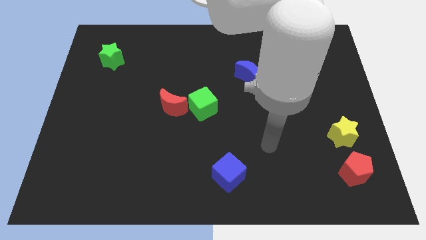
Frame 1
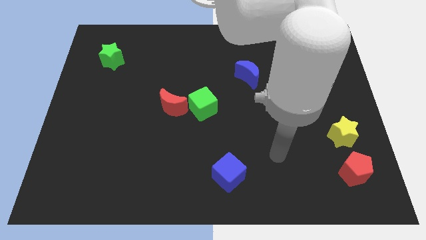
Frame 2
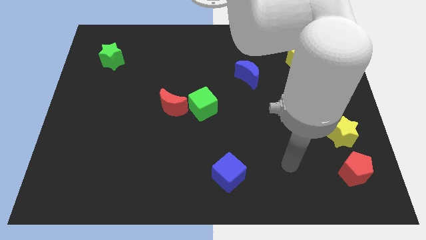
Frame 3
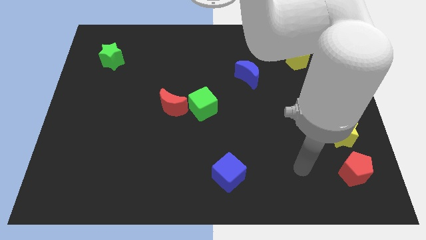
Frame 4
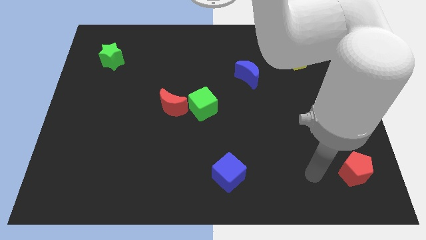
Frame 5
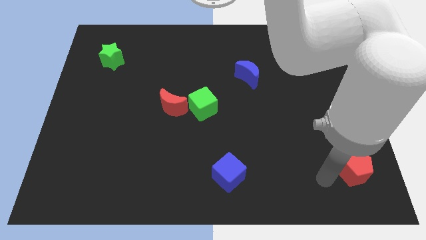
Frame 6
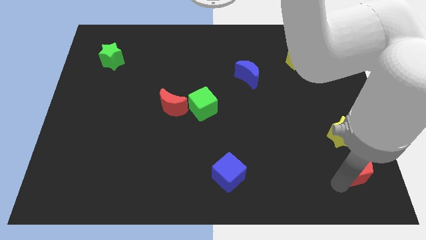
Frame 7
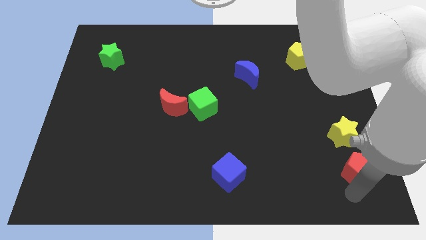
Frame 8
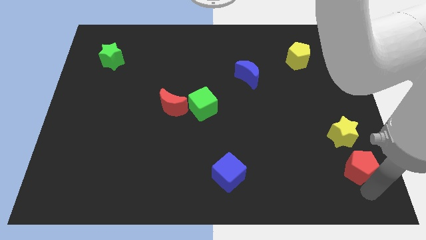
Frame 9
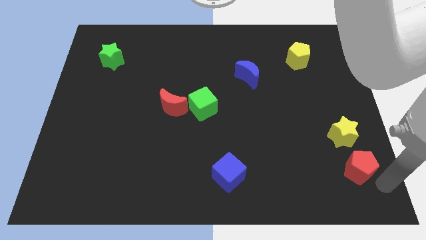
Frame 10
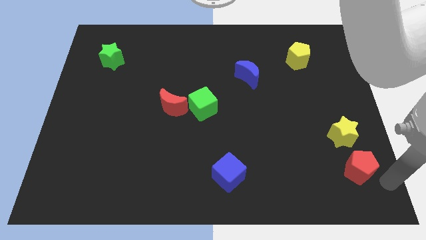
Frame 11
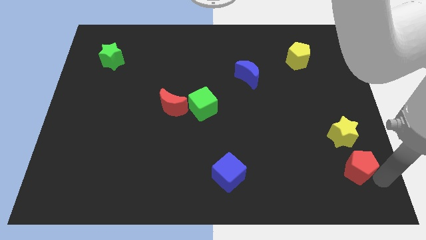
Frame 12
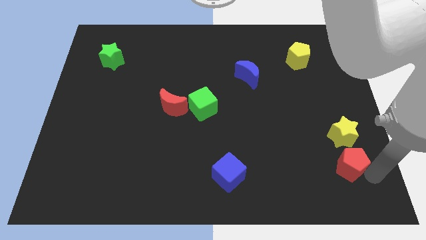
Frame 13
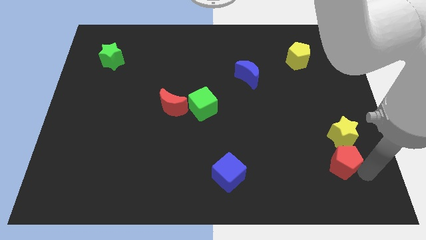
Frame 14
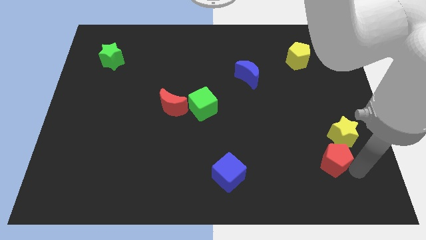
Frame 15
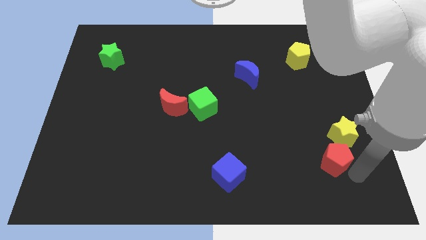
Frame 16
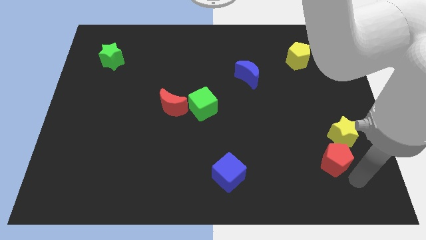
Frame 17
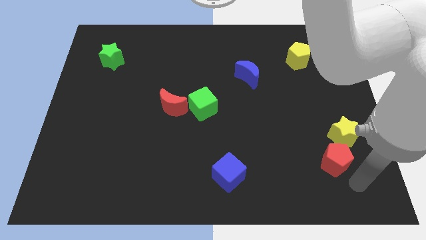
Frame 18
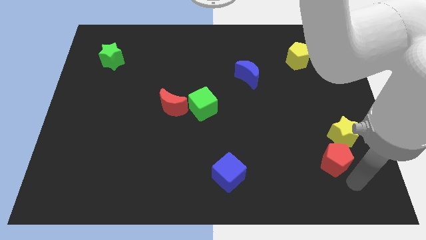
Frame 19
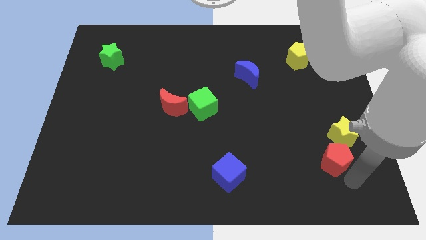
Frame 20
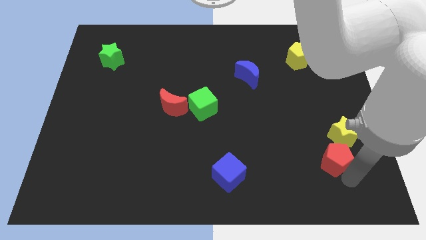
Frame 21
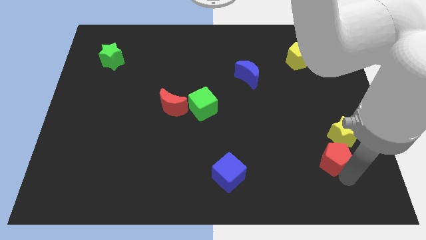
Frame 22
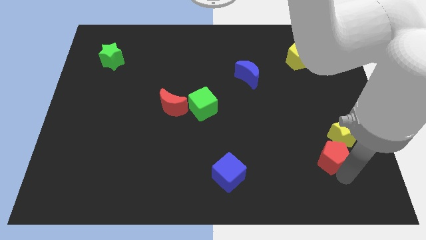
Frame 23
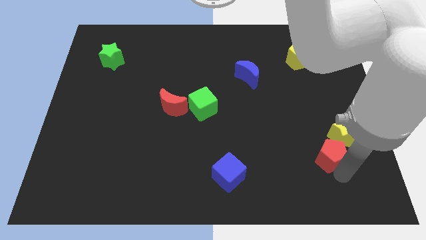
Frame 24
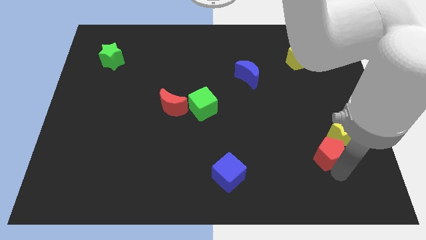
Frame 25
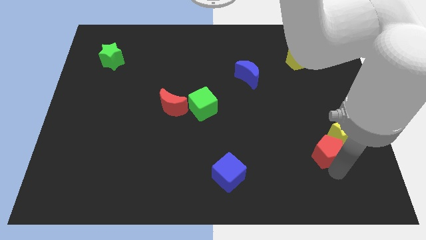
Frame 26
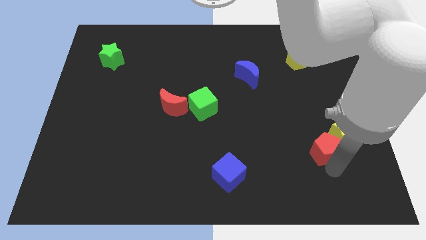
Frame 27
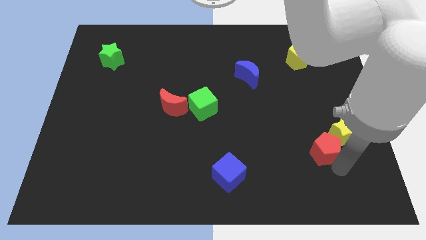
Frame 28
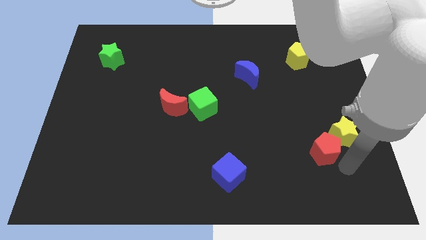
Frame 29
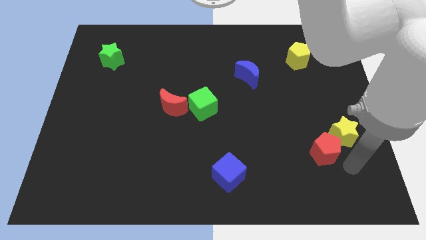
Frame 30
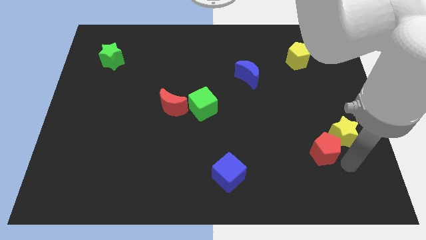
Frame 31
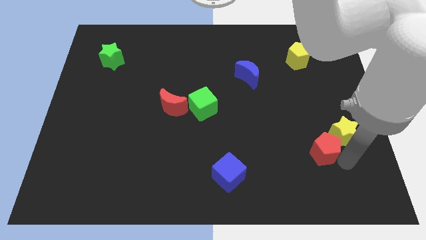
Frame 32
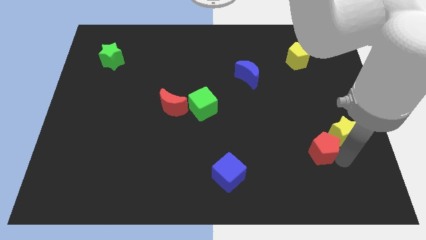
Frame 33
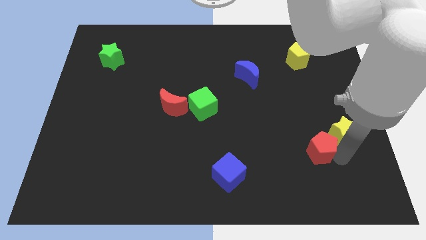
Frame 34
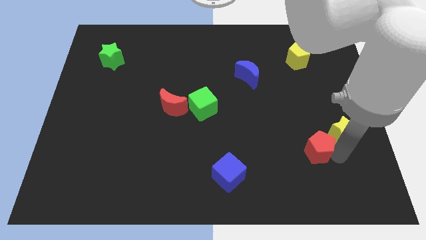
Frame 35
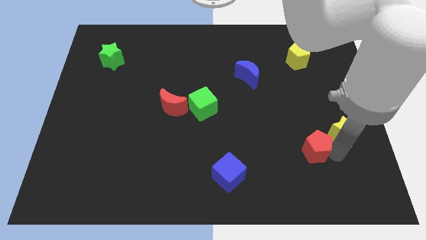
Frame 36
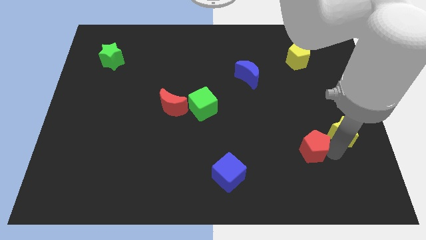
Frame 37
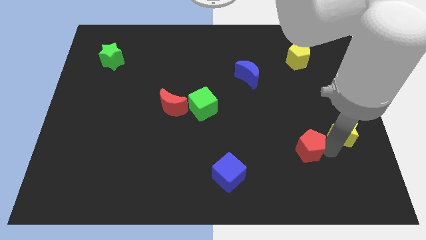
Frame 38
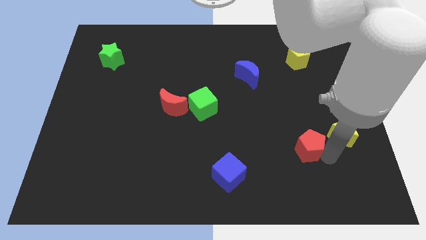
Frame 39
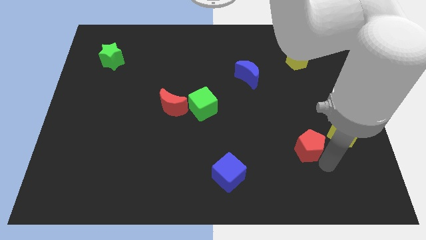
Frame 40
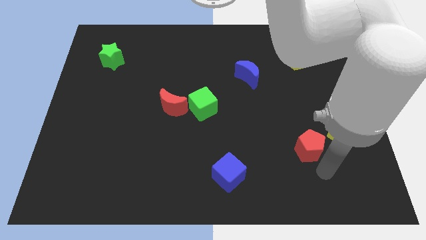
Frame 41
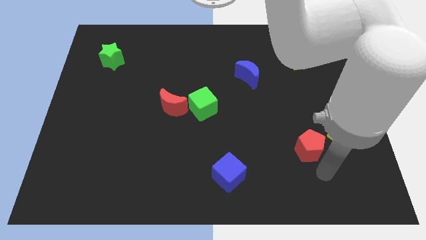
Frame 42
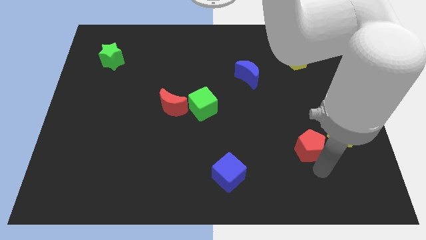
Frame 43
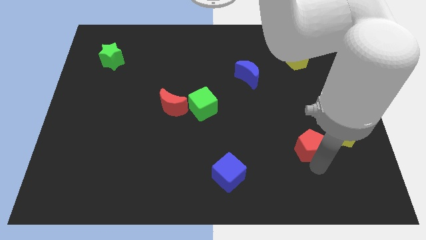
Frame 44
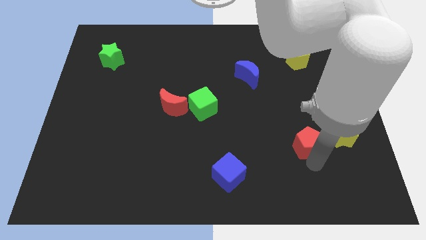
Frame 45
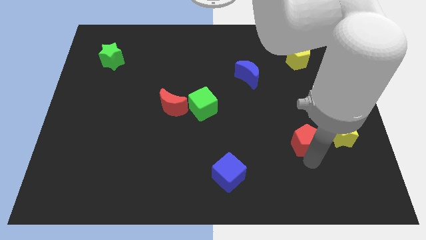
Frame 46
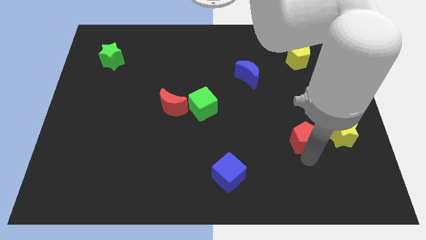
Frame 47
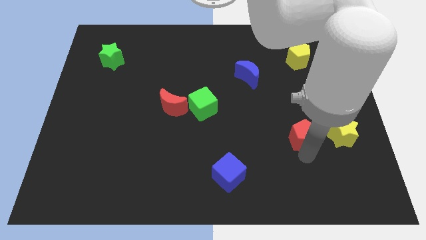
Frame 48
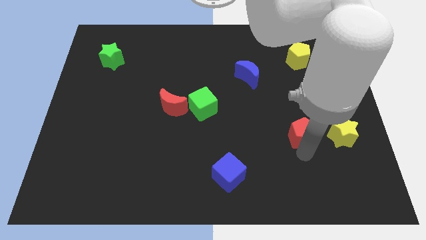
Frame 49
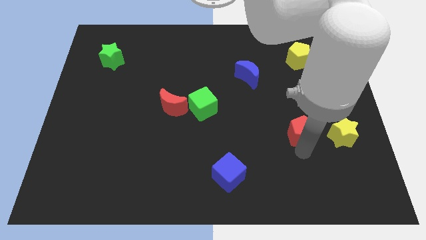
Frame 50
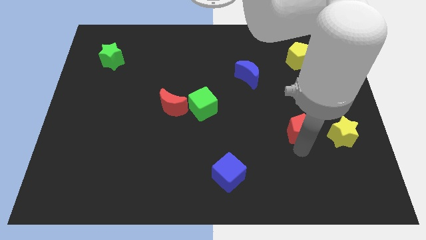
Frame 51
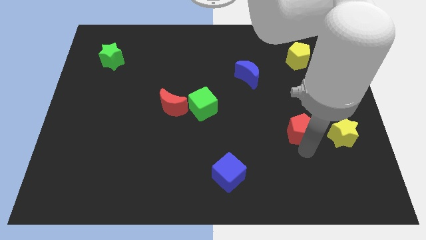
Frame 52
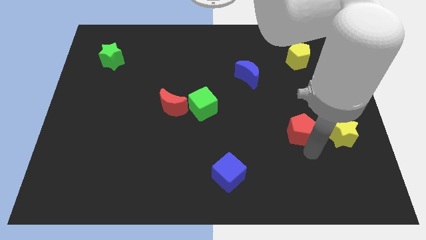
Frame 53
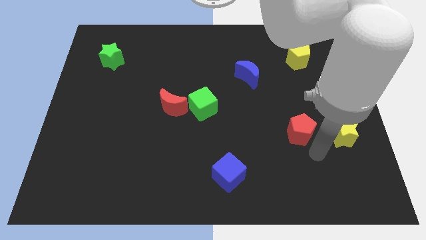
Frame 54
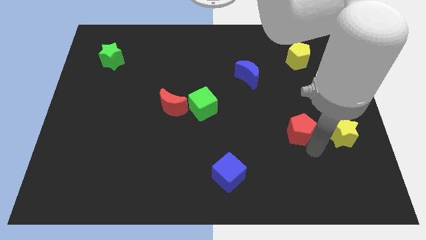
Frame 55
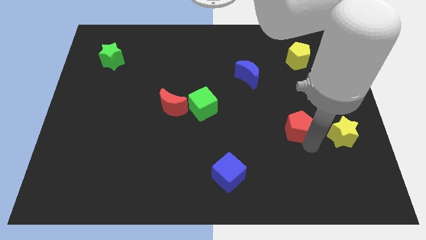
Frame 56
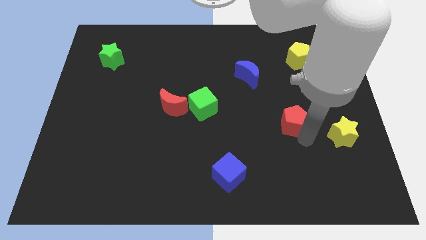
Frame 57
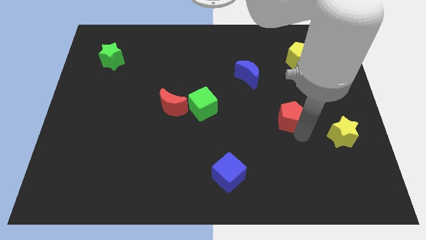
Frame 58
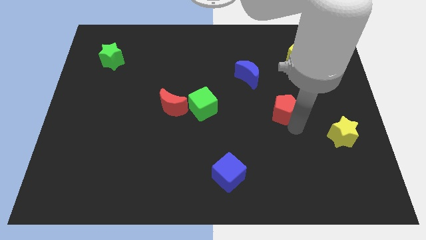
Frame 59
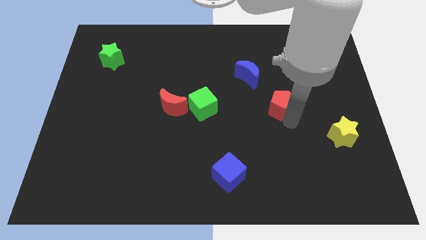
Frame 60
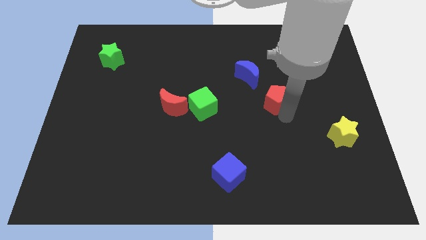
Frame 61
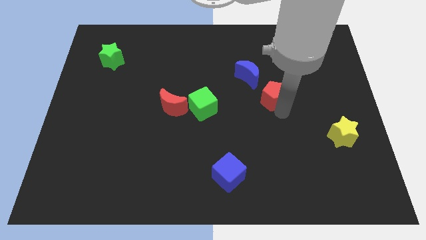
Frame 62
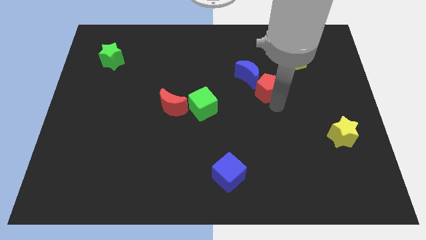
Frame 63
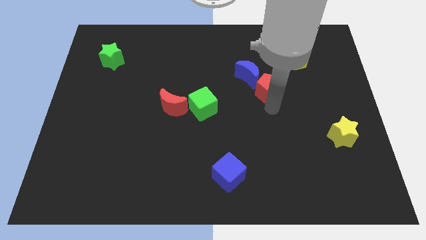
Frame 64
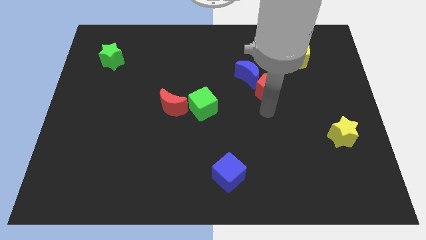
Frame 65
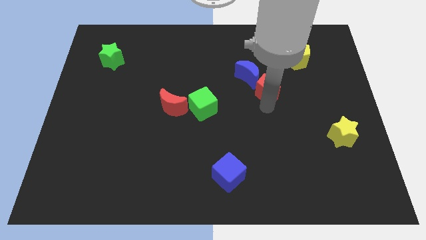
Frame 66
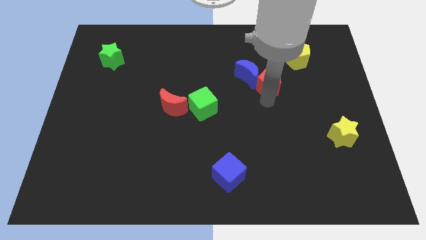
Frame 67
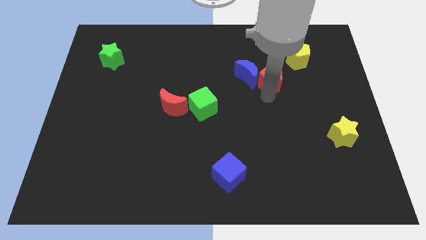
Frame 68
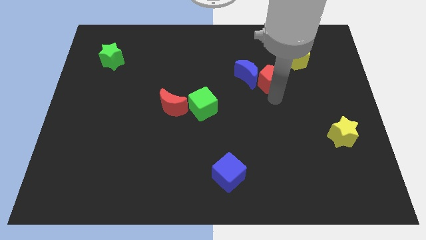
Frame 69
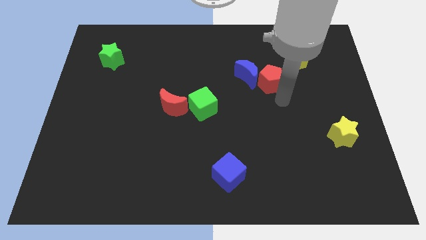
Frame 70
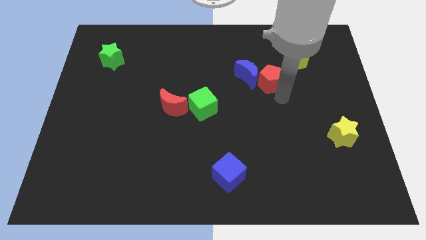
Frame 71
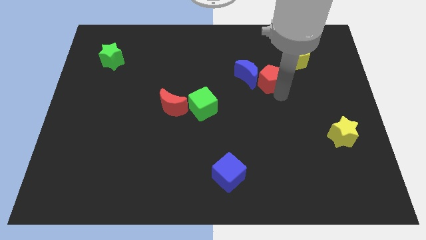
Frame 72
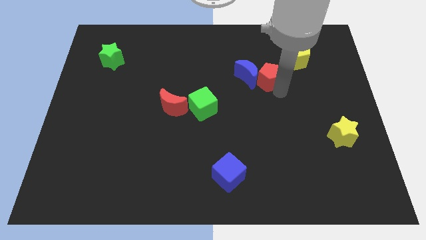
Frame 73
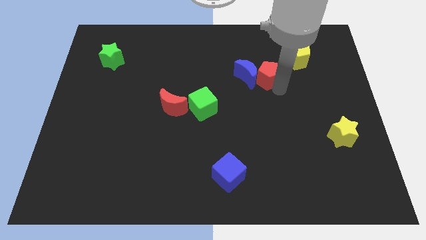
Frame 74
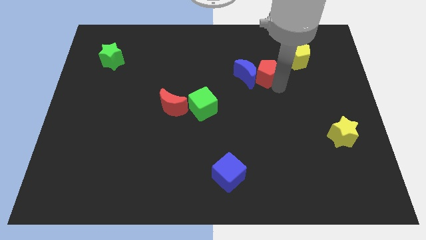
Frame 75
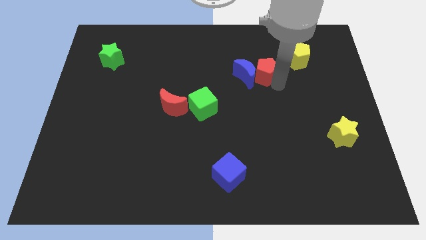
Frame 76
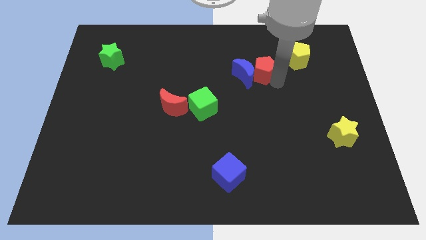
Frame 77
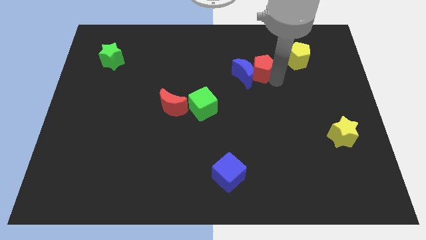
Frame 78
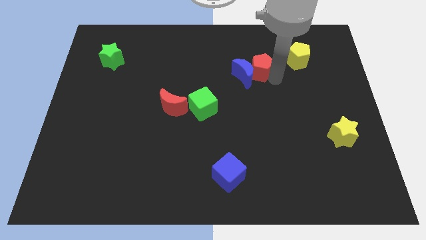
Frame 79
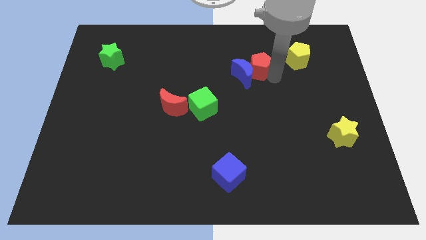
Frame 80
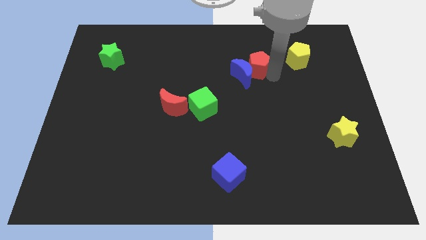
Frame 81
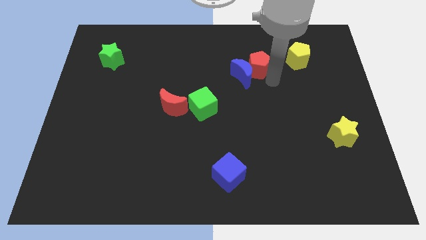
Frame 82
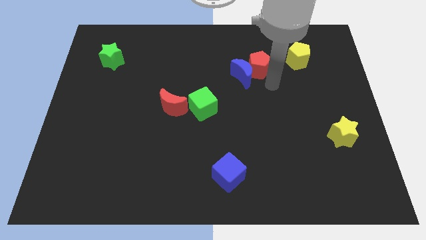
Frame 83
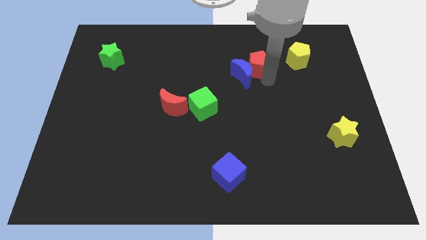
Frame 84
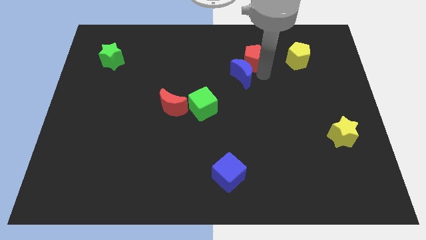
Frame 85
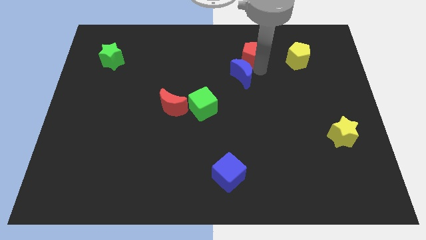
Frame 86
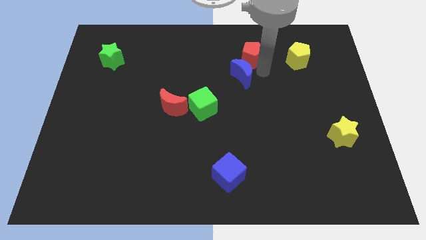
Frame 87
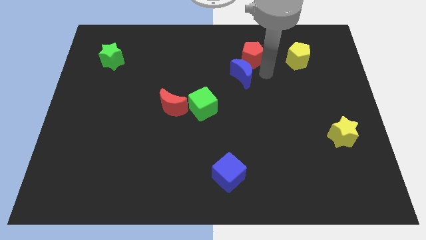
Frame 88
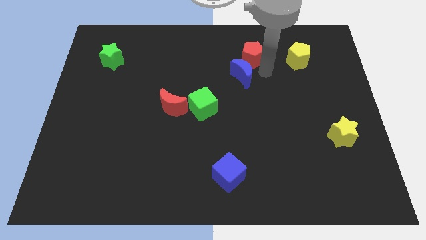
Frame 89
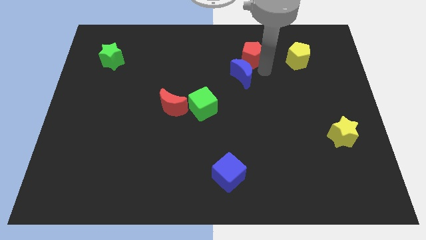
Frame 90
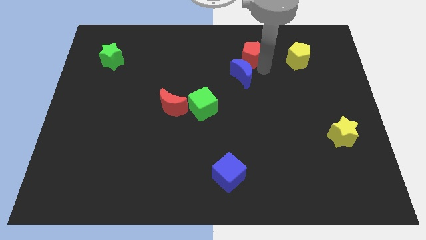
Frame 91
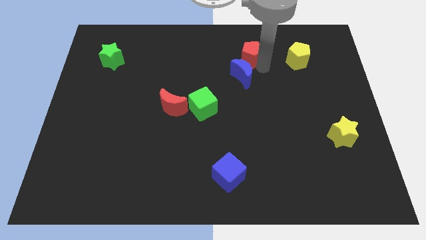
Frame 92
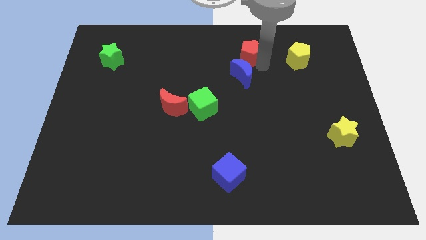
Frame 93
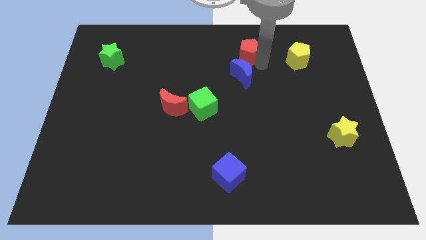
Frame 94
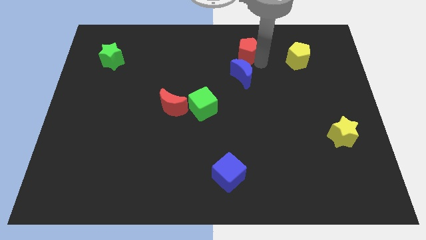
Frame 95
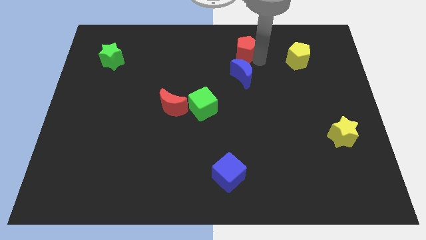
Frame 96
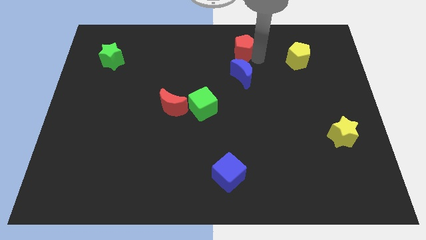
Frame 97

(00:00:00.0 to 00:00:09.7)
move the red pentagon to the top side
